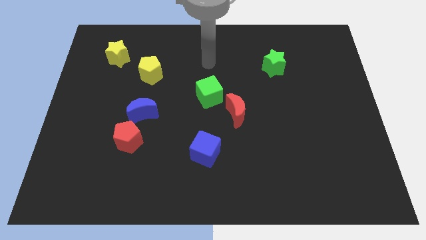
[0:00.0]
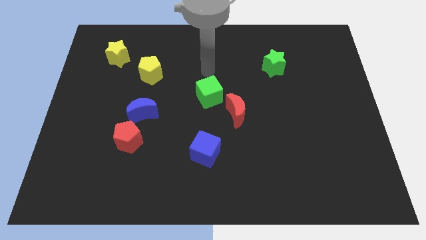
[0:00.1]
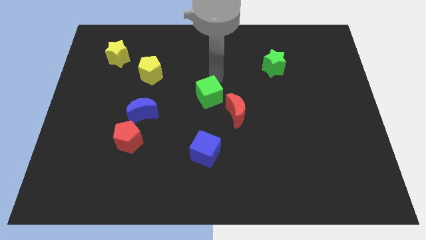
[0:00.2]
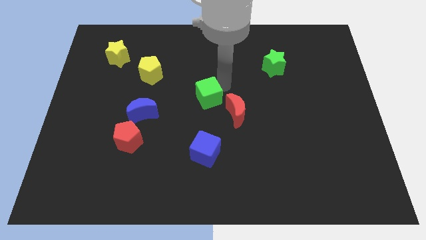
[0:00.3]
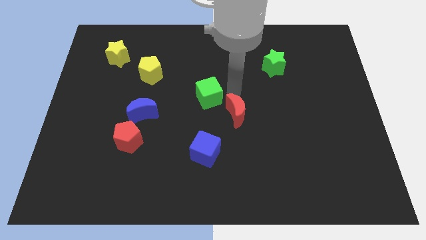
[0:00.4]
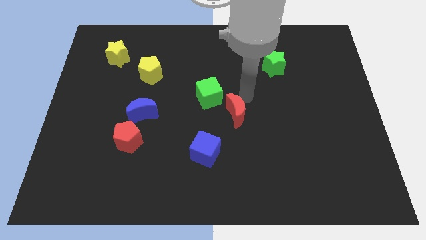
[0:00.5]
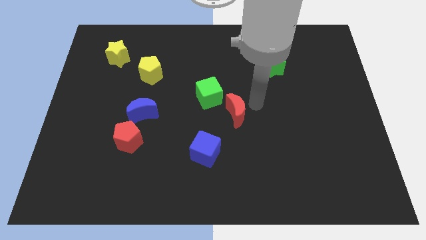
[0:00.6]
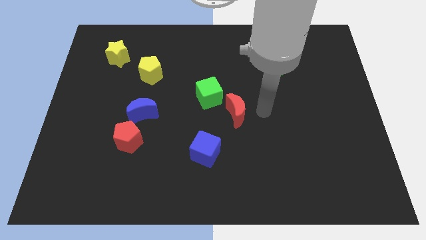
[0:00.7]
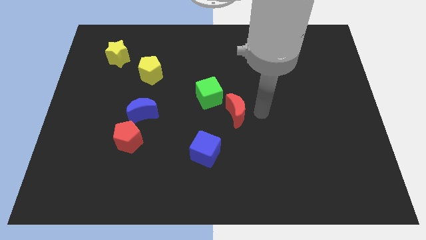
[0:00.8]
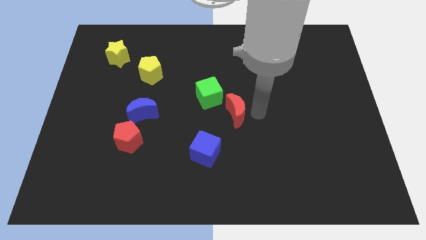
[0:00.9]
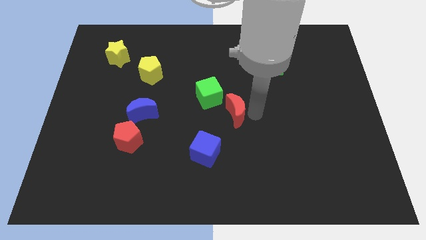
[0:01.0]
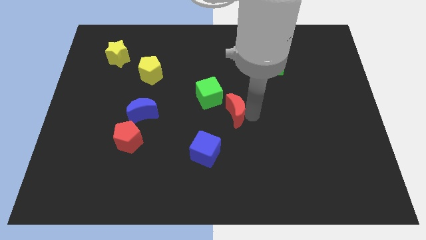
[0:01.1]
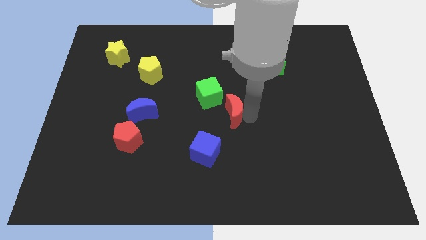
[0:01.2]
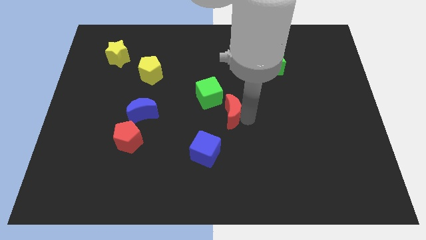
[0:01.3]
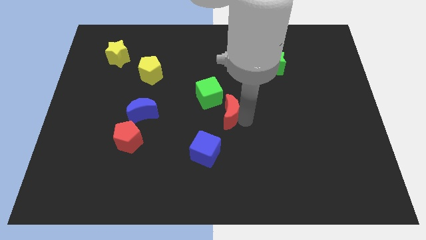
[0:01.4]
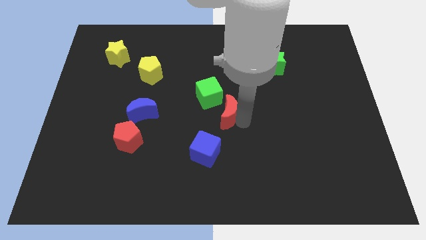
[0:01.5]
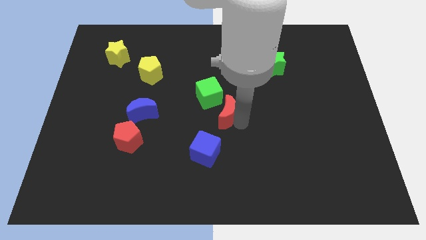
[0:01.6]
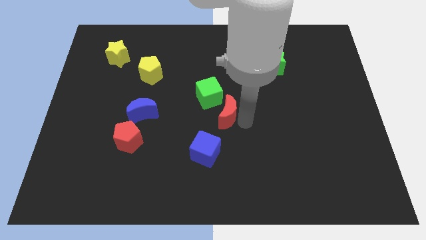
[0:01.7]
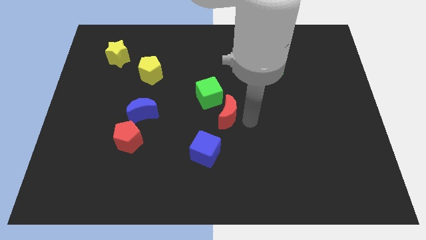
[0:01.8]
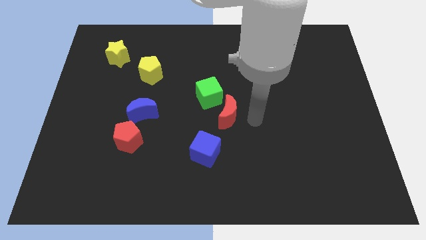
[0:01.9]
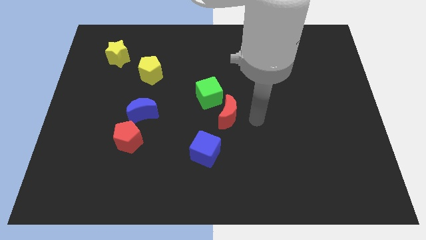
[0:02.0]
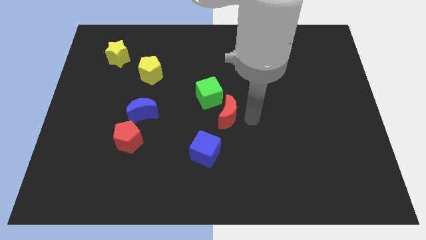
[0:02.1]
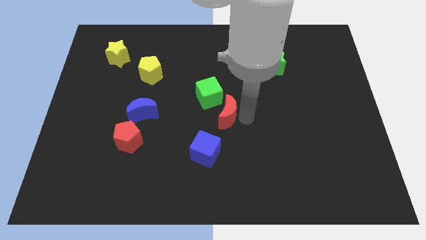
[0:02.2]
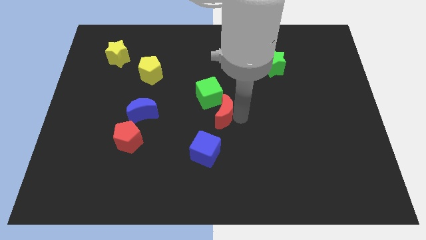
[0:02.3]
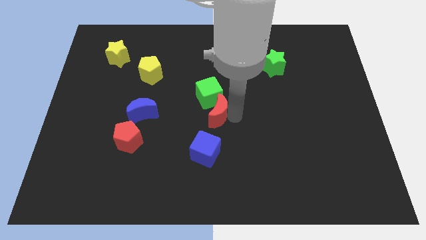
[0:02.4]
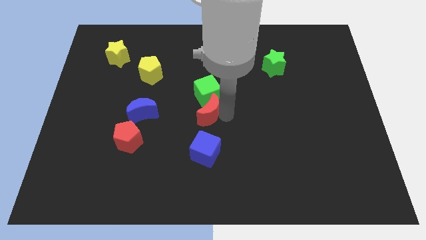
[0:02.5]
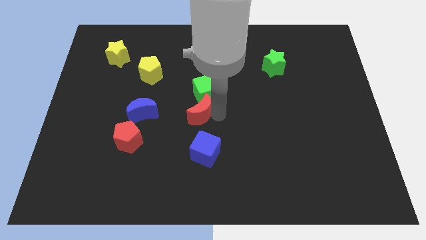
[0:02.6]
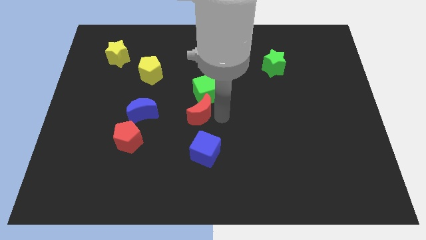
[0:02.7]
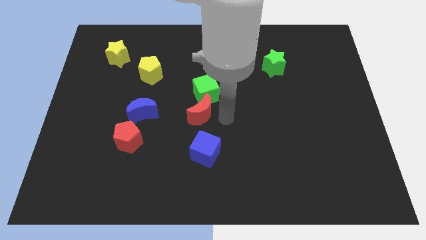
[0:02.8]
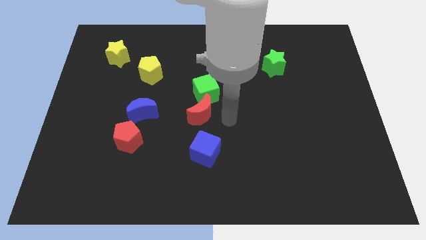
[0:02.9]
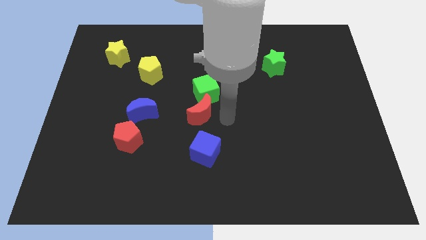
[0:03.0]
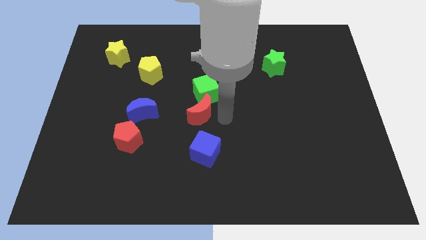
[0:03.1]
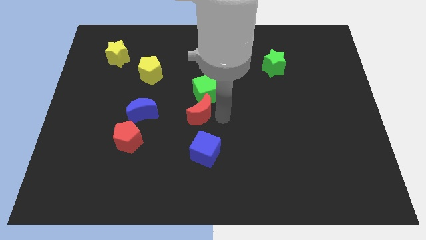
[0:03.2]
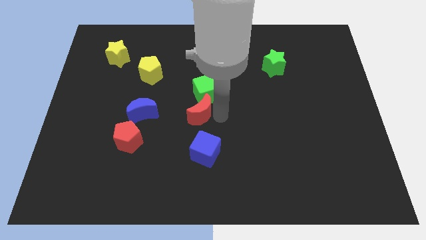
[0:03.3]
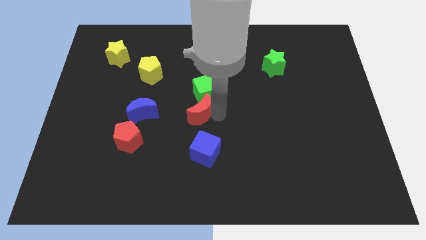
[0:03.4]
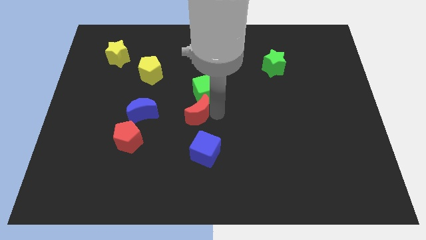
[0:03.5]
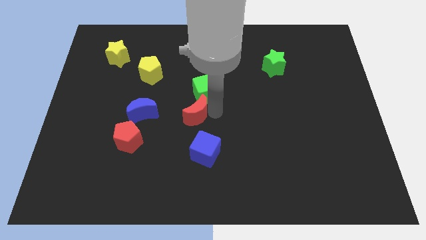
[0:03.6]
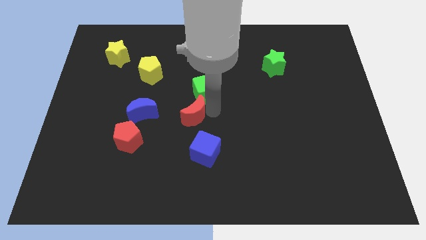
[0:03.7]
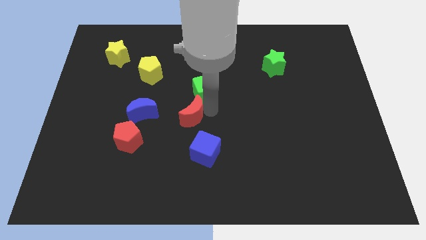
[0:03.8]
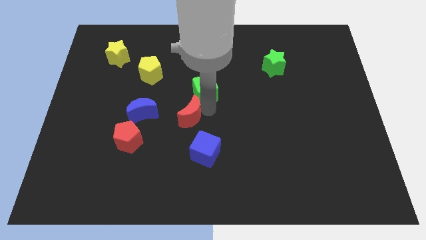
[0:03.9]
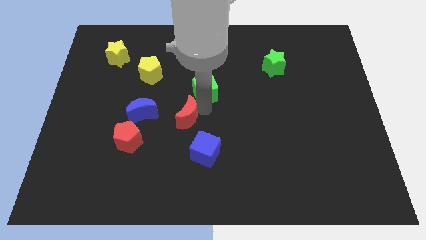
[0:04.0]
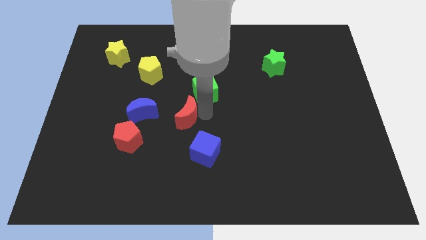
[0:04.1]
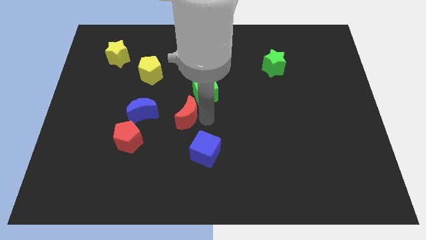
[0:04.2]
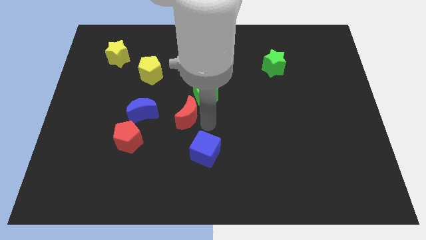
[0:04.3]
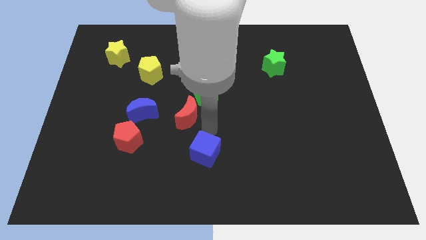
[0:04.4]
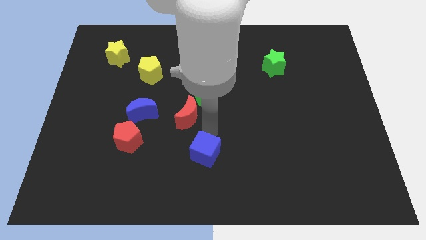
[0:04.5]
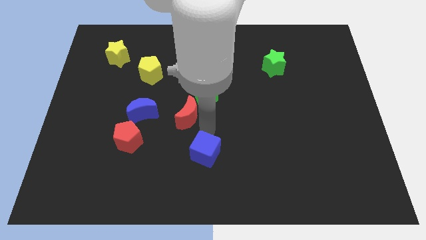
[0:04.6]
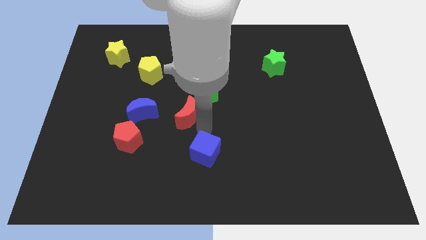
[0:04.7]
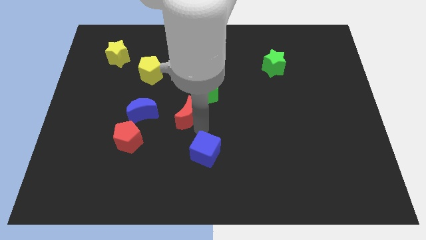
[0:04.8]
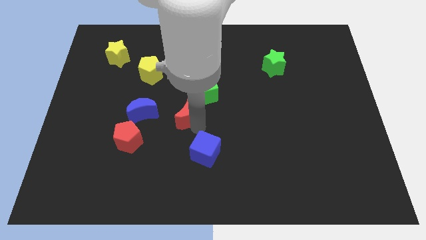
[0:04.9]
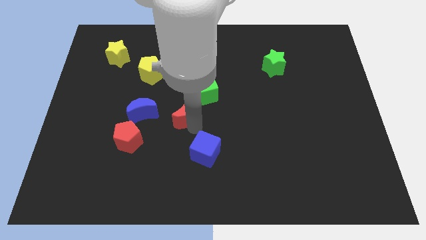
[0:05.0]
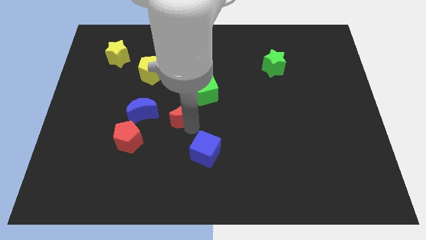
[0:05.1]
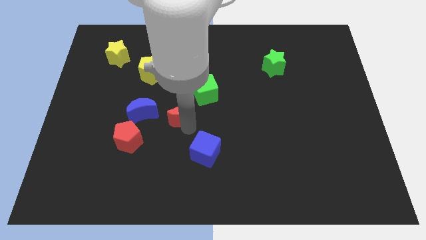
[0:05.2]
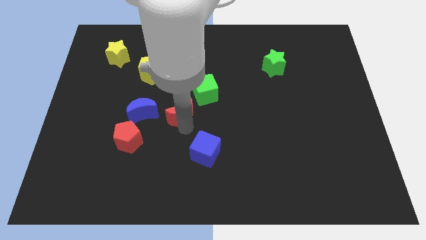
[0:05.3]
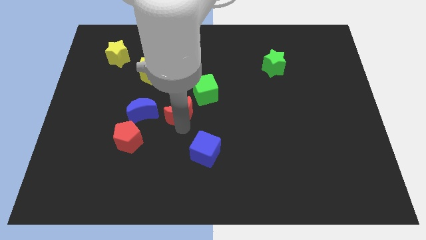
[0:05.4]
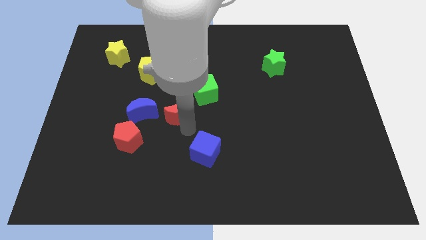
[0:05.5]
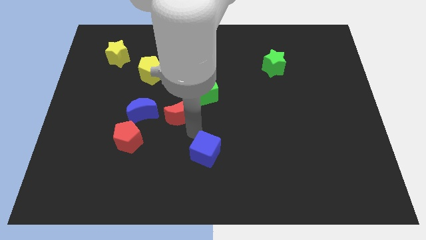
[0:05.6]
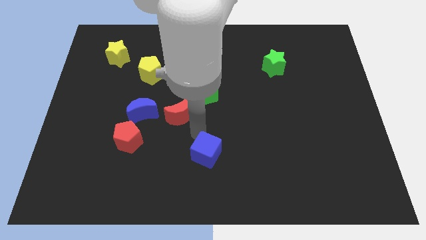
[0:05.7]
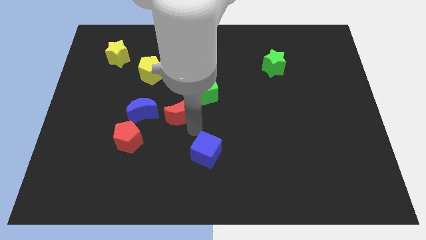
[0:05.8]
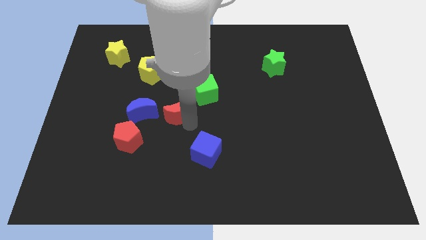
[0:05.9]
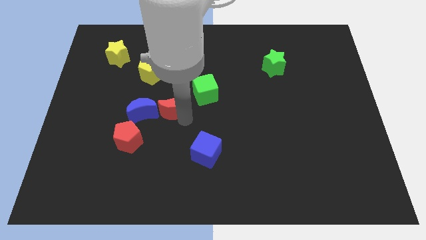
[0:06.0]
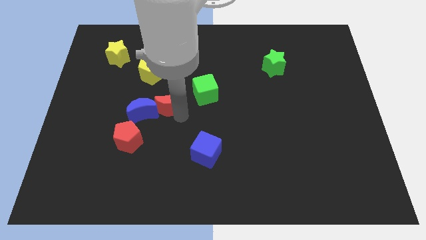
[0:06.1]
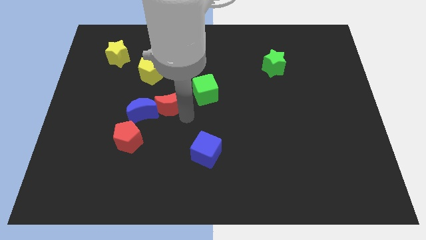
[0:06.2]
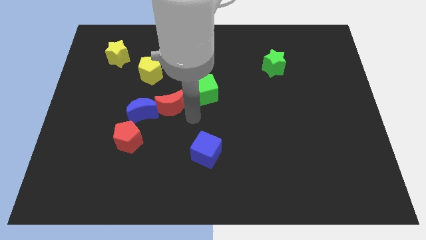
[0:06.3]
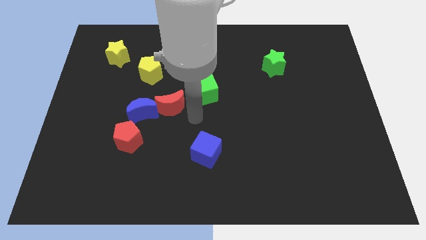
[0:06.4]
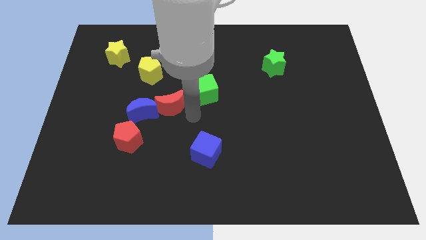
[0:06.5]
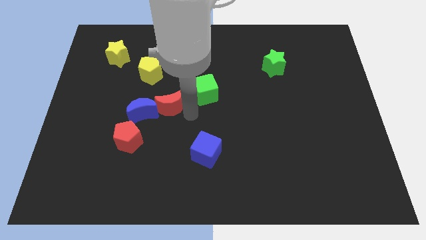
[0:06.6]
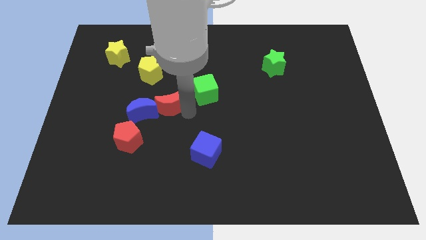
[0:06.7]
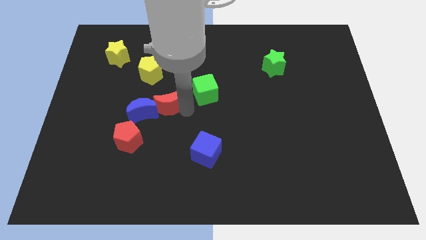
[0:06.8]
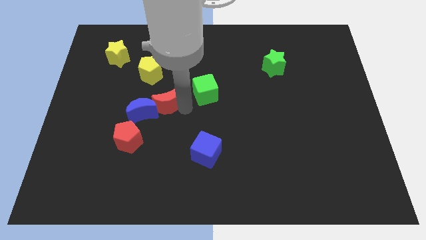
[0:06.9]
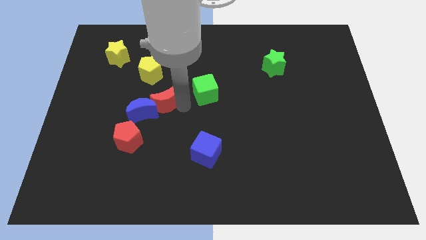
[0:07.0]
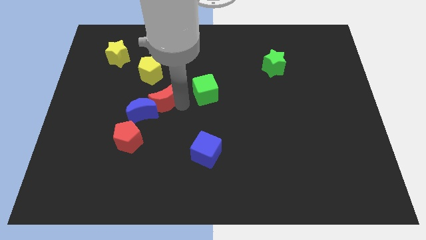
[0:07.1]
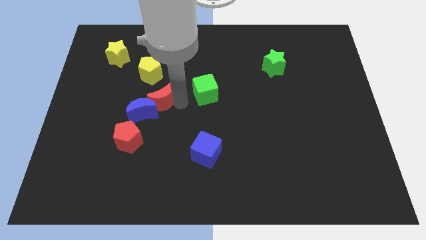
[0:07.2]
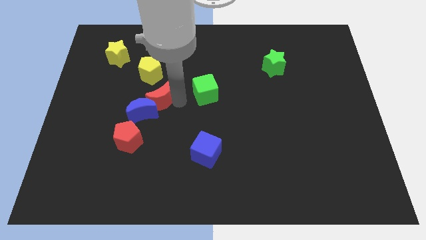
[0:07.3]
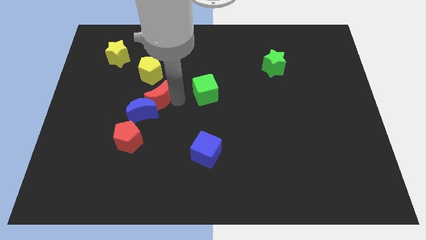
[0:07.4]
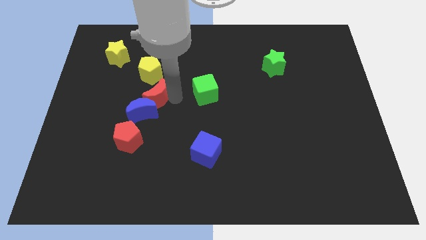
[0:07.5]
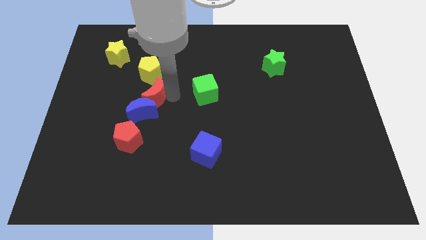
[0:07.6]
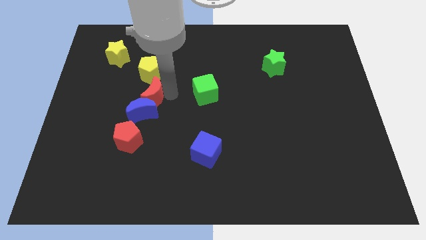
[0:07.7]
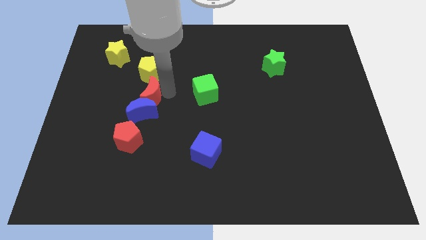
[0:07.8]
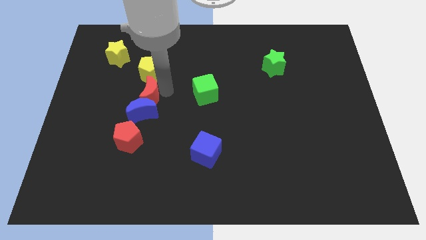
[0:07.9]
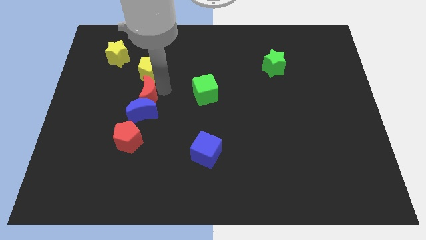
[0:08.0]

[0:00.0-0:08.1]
slide the red moon to the left
